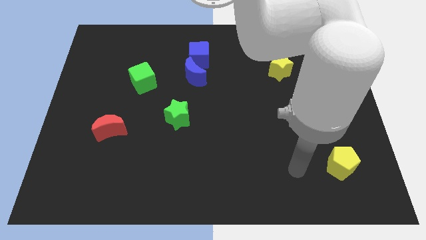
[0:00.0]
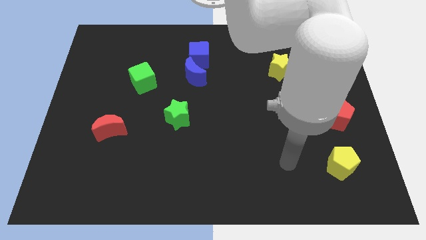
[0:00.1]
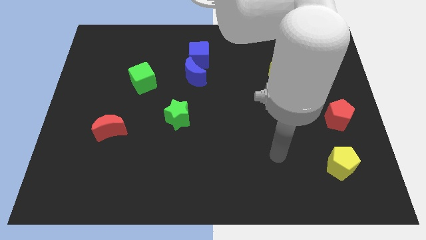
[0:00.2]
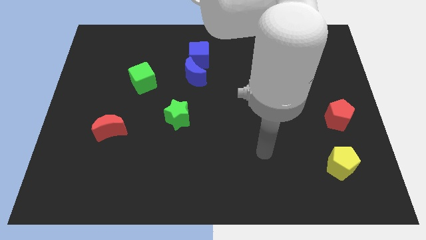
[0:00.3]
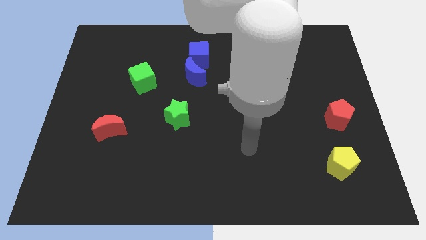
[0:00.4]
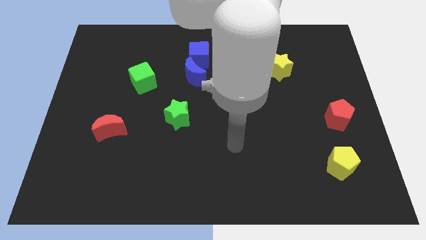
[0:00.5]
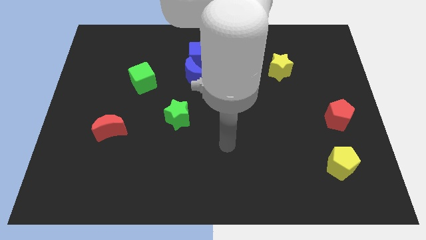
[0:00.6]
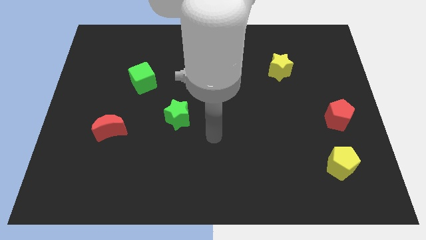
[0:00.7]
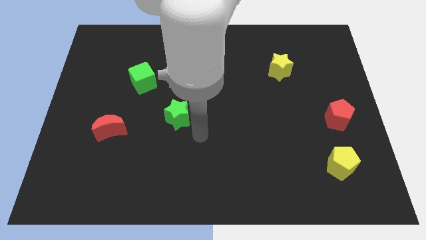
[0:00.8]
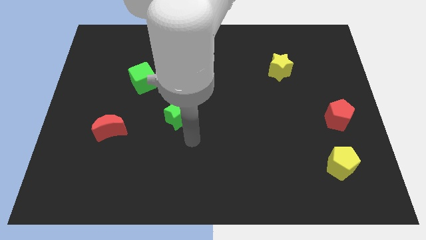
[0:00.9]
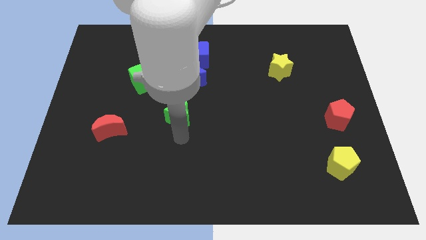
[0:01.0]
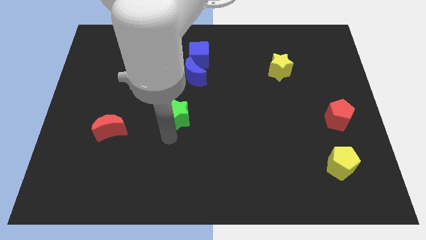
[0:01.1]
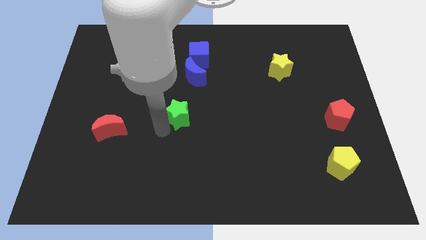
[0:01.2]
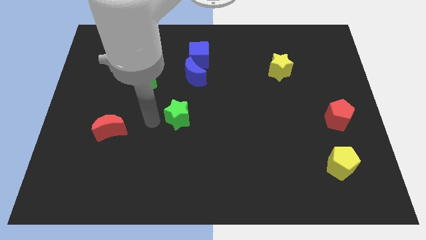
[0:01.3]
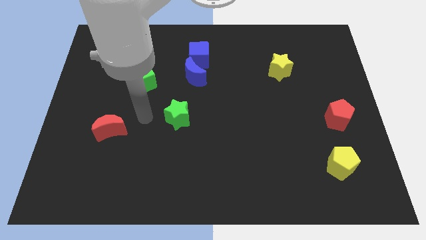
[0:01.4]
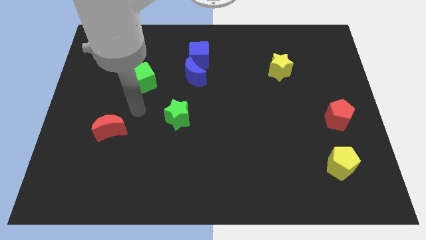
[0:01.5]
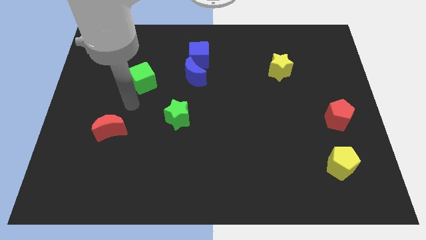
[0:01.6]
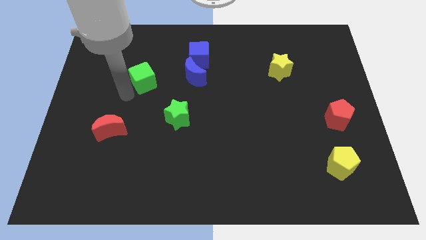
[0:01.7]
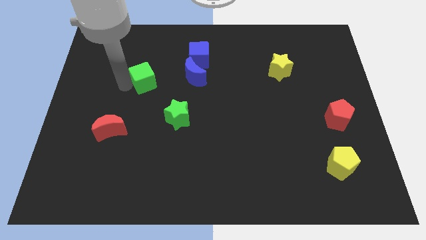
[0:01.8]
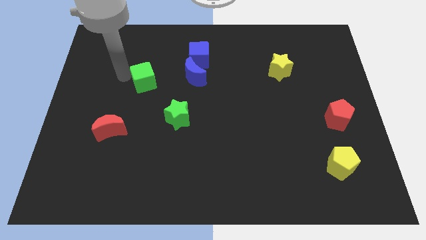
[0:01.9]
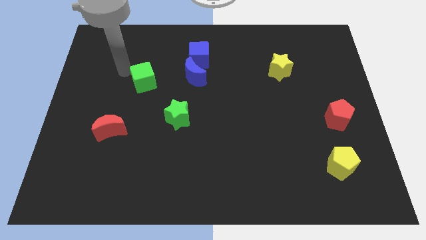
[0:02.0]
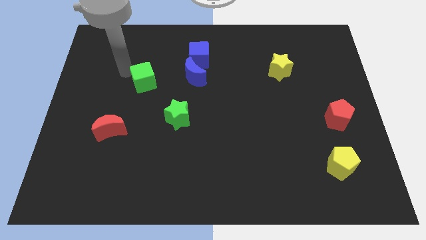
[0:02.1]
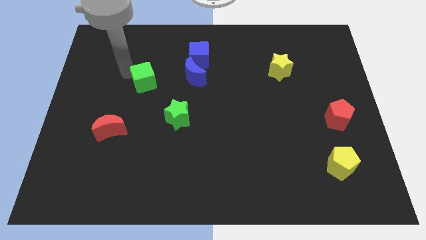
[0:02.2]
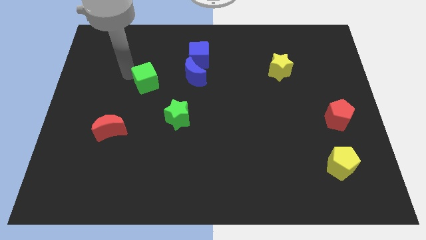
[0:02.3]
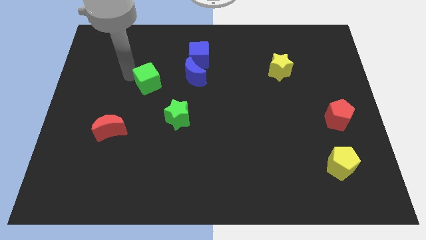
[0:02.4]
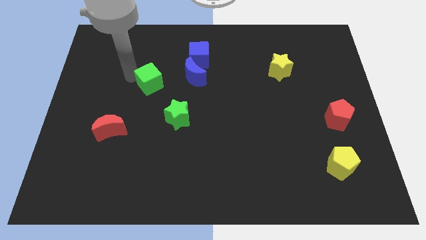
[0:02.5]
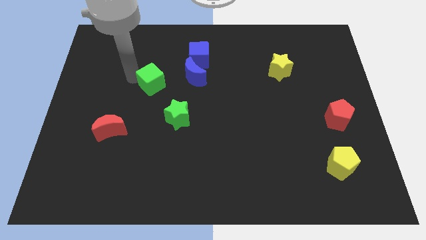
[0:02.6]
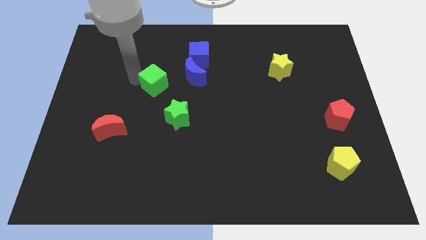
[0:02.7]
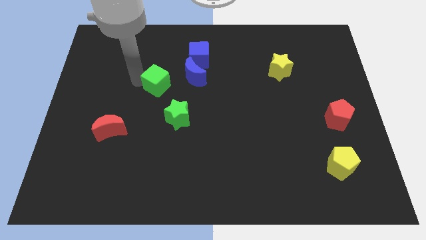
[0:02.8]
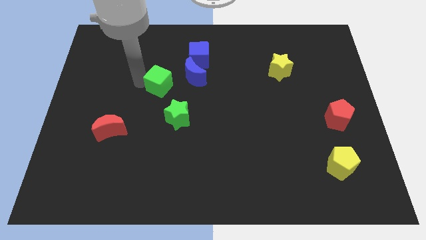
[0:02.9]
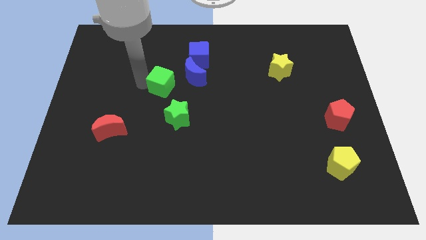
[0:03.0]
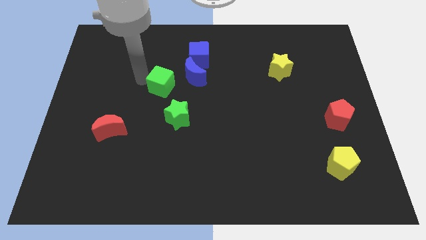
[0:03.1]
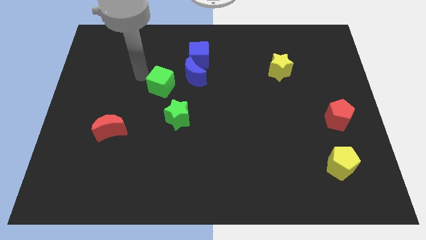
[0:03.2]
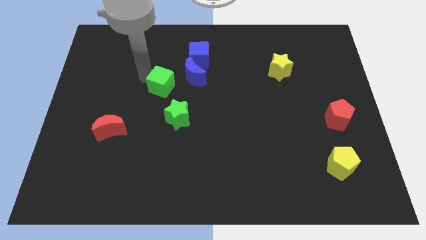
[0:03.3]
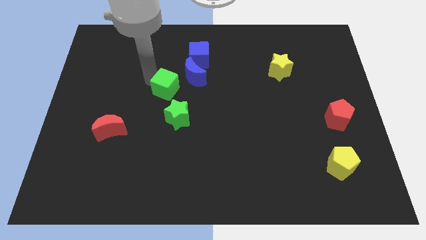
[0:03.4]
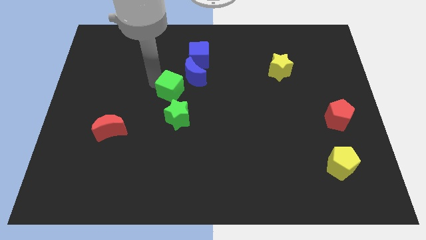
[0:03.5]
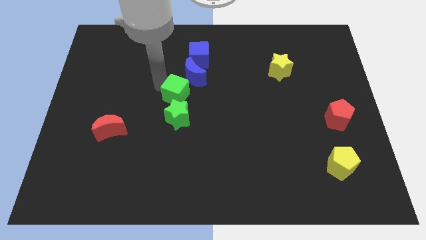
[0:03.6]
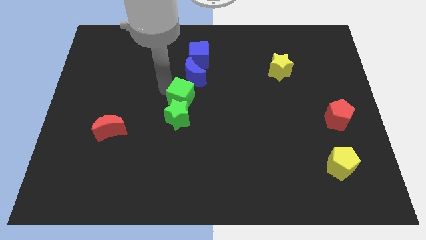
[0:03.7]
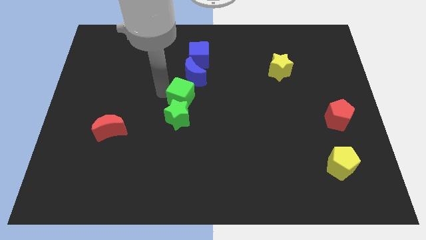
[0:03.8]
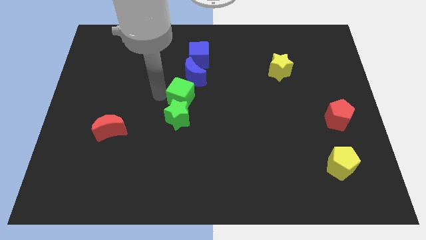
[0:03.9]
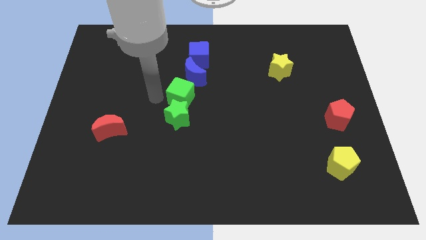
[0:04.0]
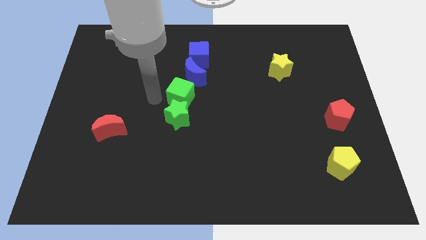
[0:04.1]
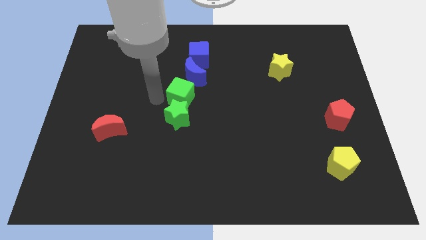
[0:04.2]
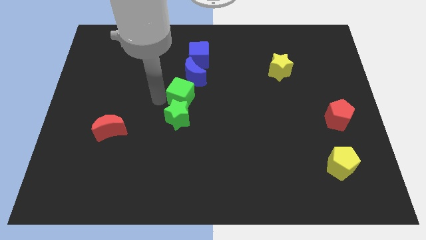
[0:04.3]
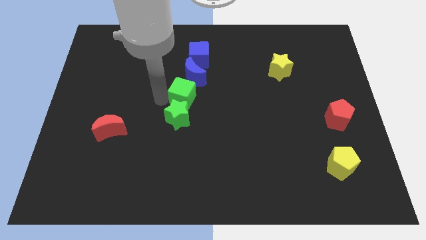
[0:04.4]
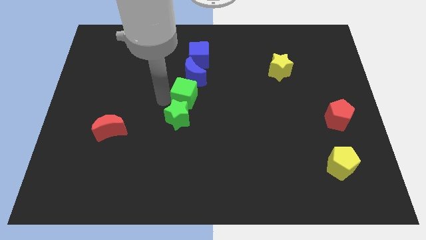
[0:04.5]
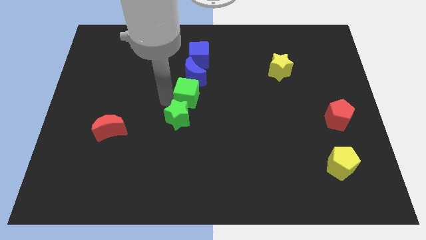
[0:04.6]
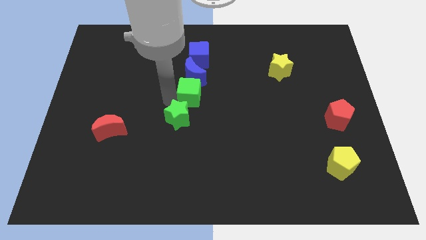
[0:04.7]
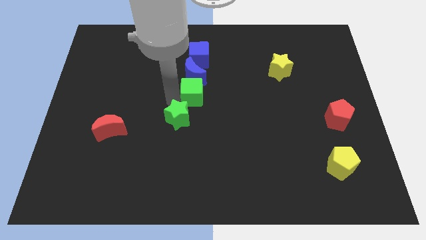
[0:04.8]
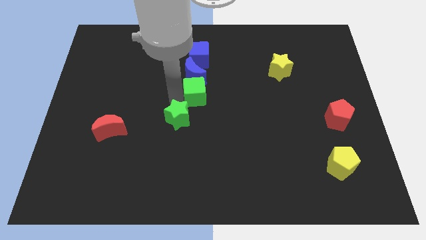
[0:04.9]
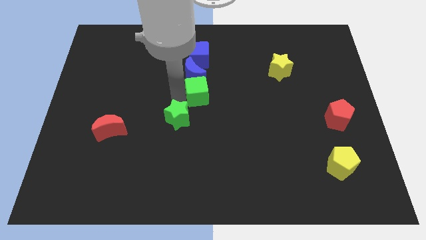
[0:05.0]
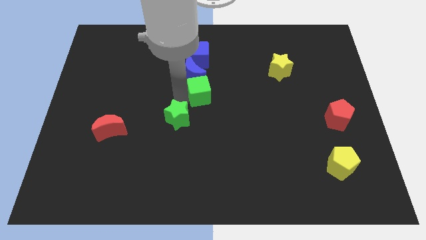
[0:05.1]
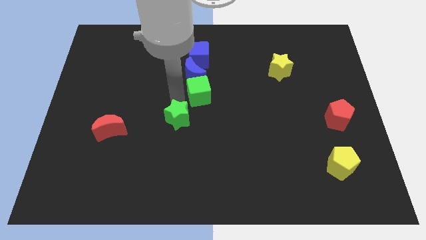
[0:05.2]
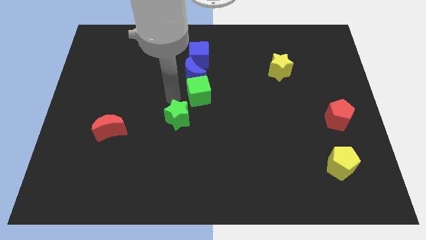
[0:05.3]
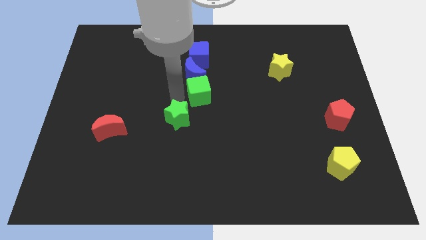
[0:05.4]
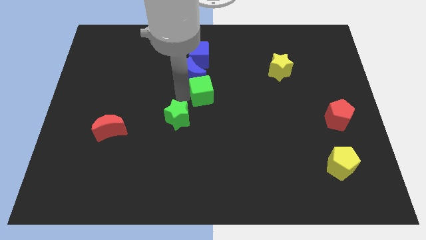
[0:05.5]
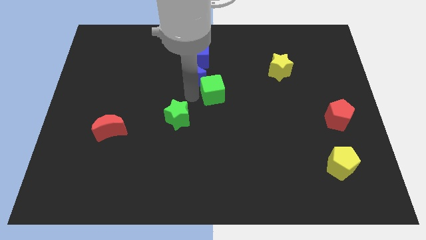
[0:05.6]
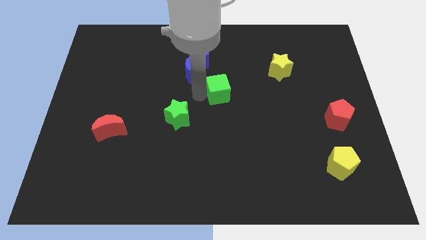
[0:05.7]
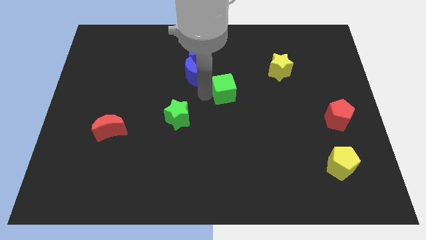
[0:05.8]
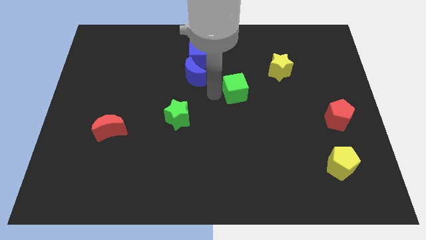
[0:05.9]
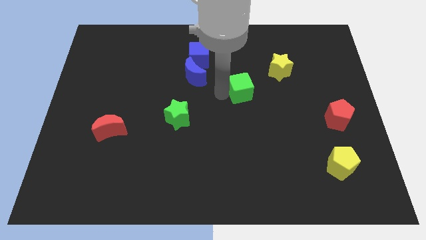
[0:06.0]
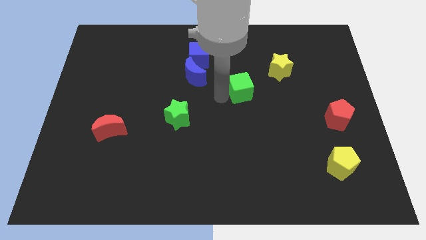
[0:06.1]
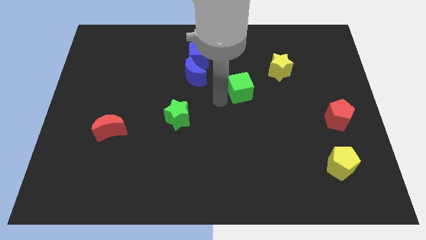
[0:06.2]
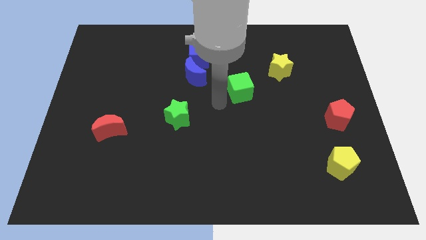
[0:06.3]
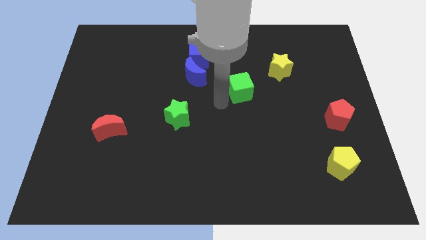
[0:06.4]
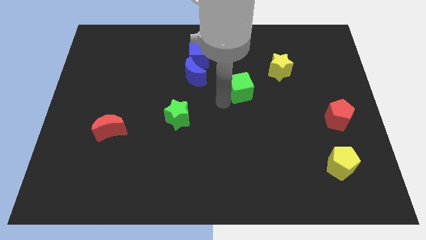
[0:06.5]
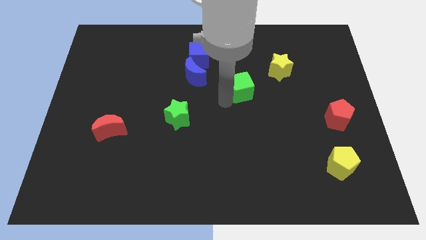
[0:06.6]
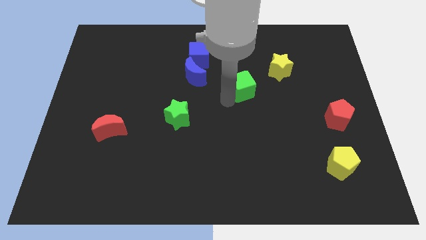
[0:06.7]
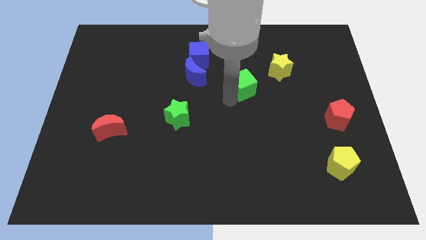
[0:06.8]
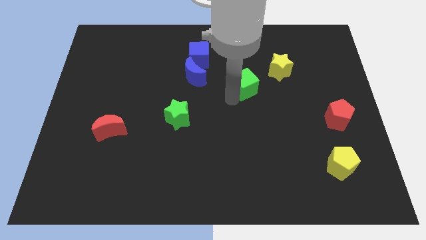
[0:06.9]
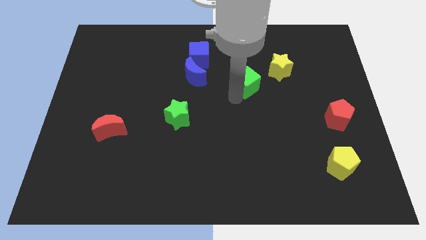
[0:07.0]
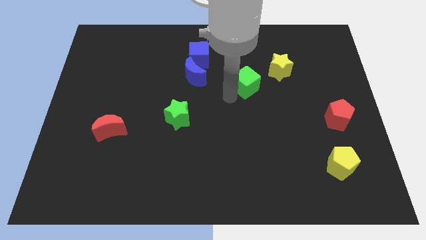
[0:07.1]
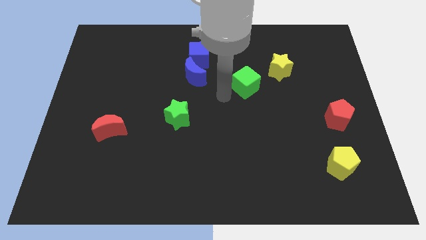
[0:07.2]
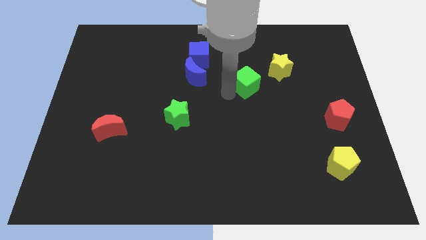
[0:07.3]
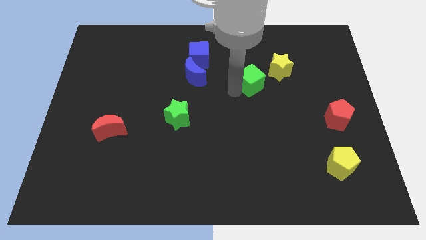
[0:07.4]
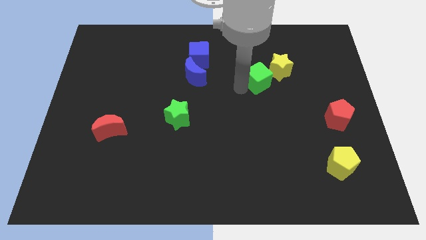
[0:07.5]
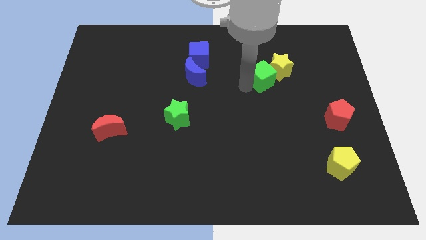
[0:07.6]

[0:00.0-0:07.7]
slide the green cube next to the yellow star
